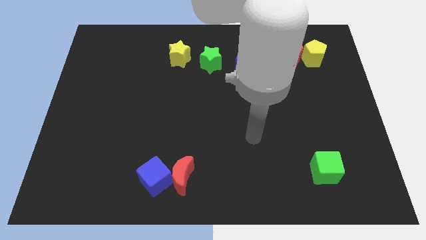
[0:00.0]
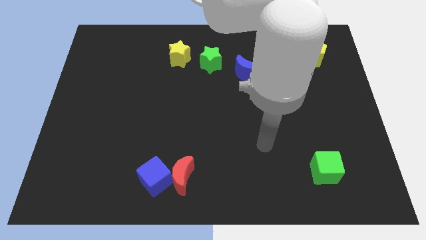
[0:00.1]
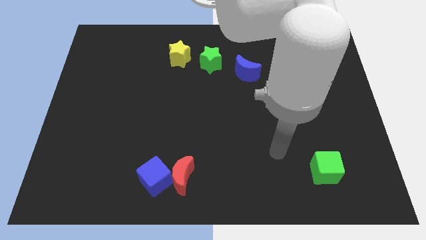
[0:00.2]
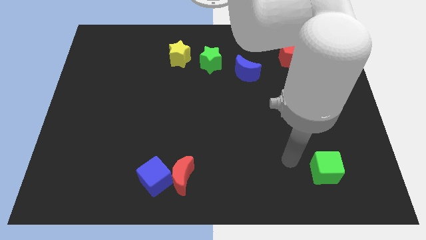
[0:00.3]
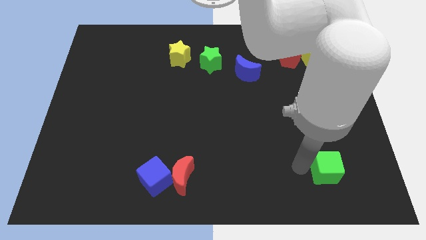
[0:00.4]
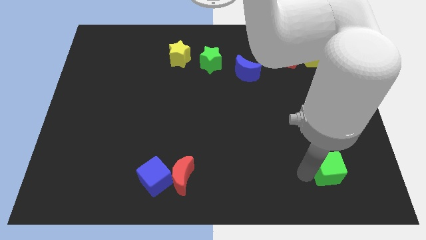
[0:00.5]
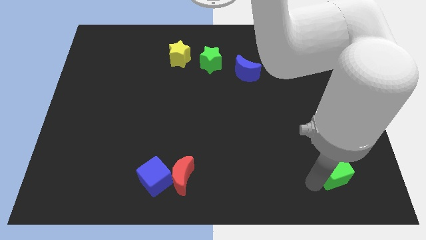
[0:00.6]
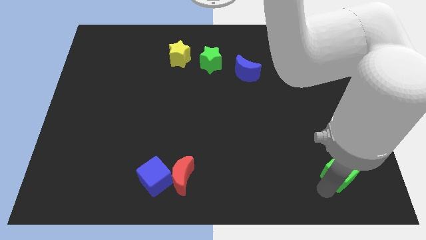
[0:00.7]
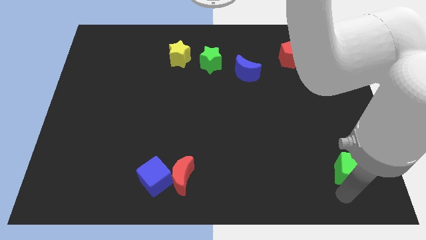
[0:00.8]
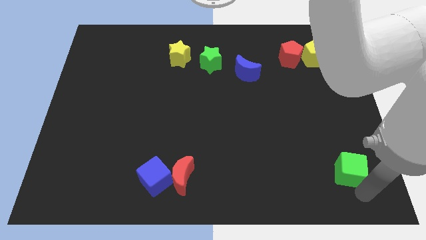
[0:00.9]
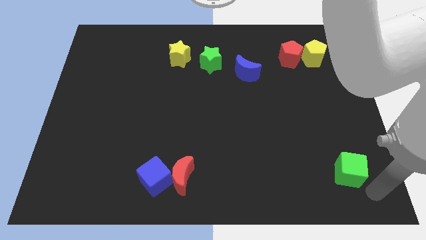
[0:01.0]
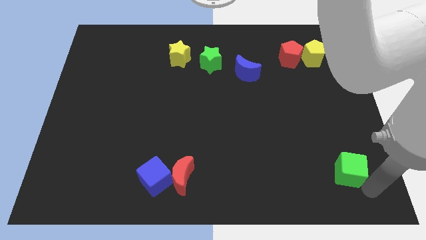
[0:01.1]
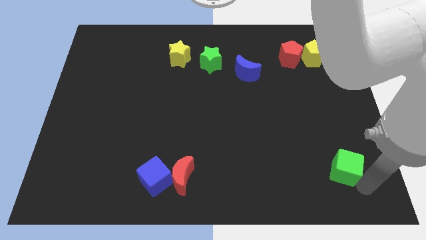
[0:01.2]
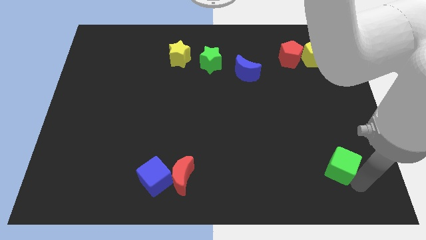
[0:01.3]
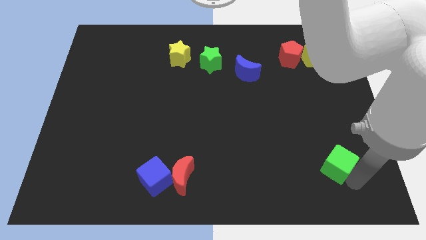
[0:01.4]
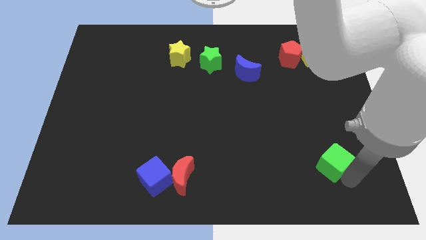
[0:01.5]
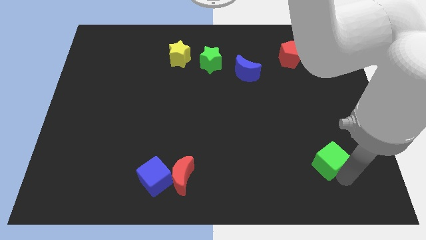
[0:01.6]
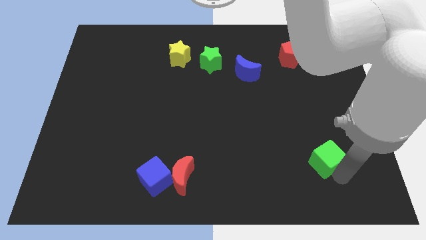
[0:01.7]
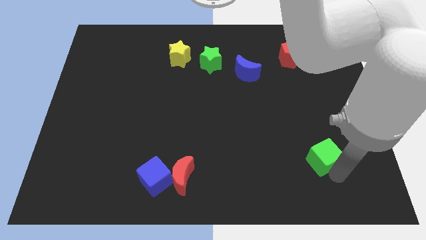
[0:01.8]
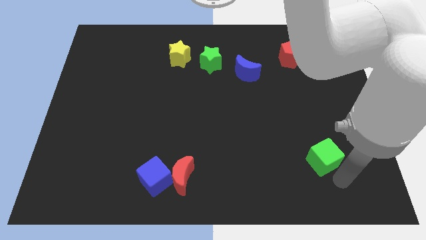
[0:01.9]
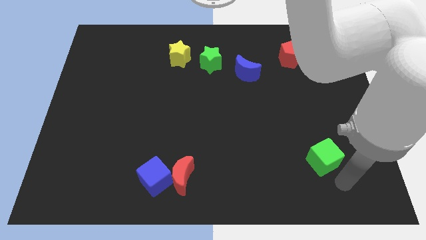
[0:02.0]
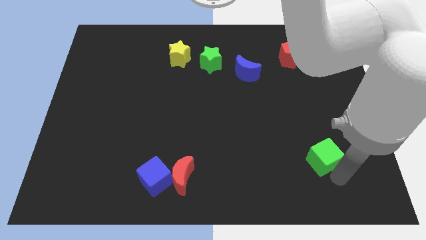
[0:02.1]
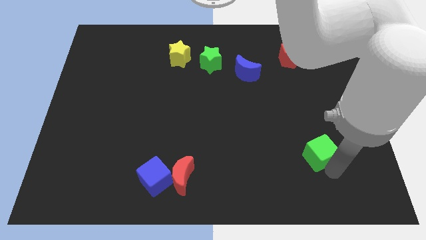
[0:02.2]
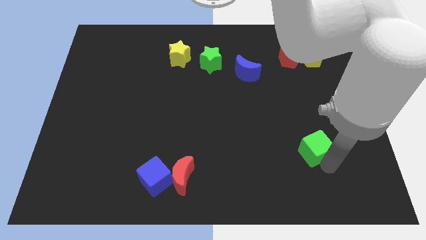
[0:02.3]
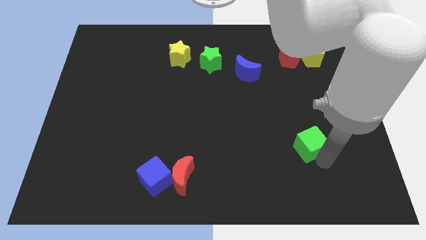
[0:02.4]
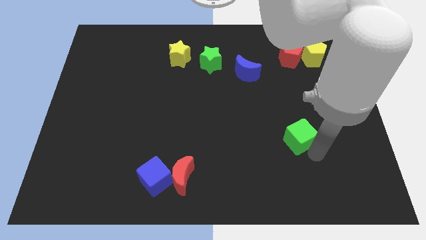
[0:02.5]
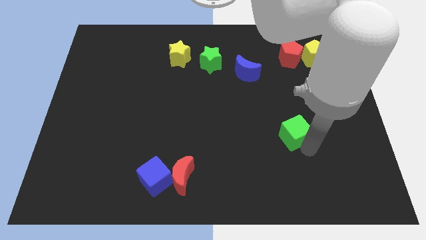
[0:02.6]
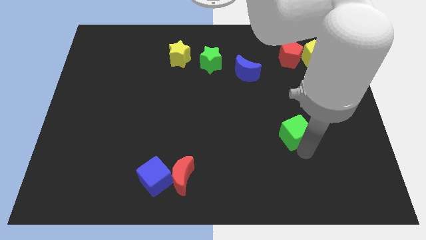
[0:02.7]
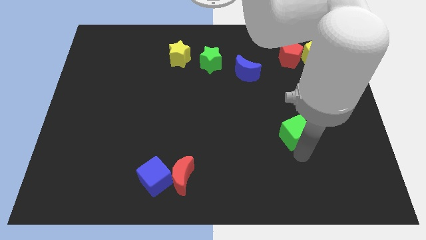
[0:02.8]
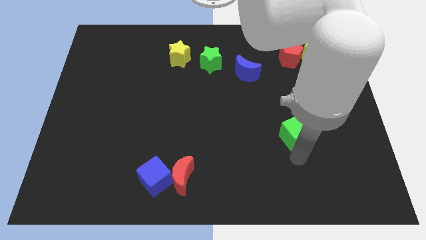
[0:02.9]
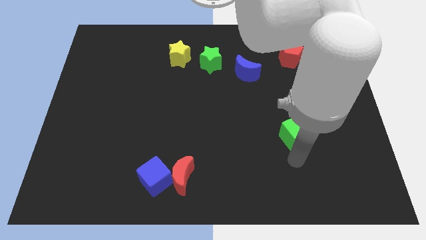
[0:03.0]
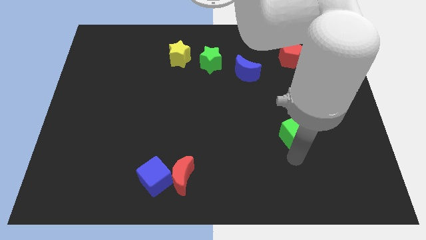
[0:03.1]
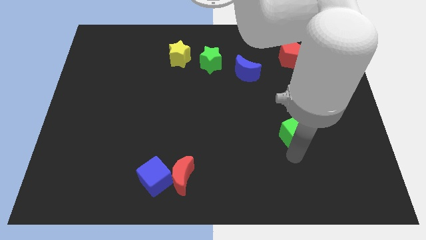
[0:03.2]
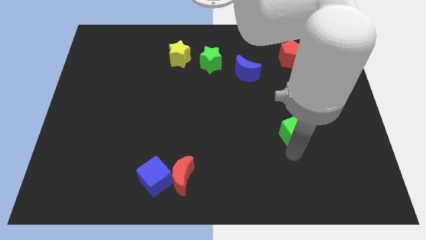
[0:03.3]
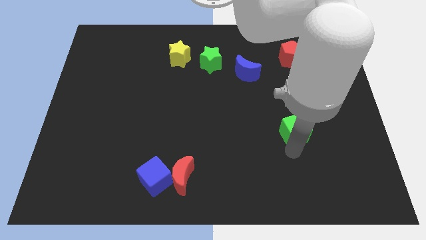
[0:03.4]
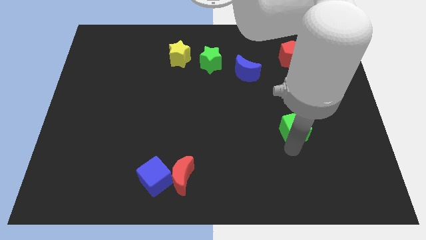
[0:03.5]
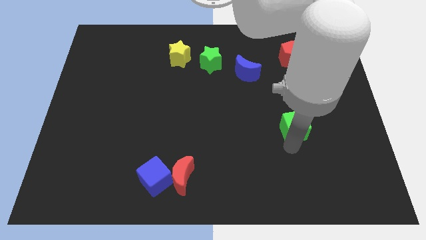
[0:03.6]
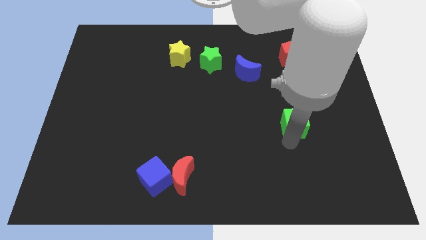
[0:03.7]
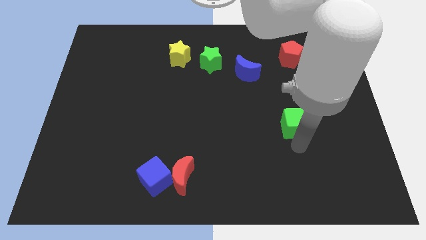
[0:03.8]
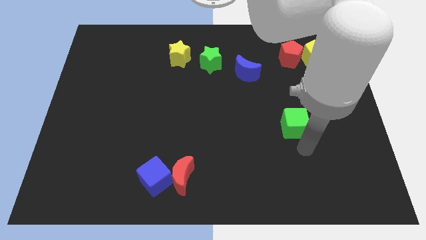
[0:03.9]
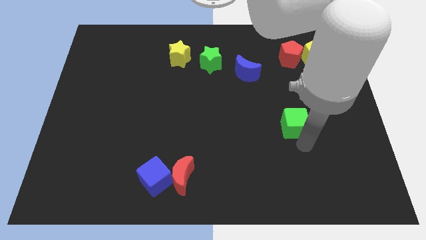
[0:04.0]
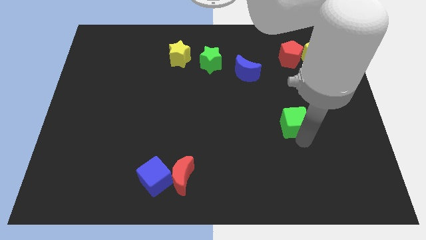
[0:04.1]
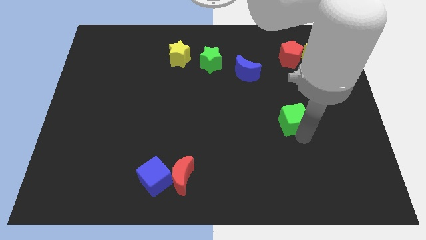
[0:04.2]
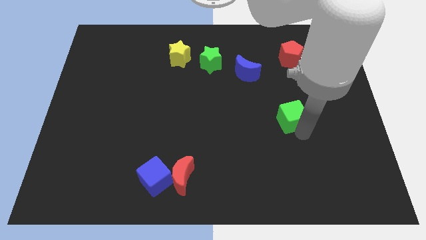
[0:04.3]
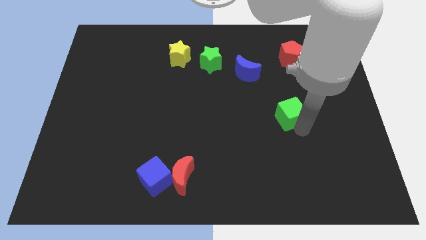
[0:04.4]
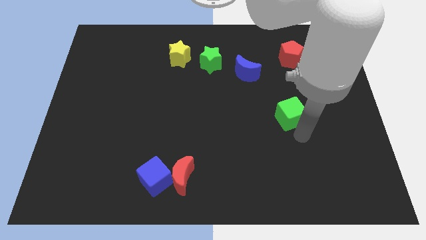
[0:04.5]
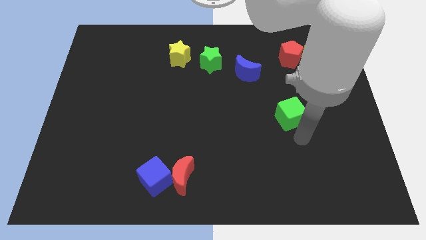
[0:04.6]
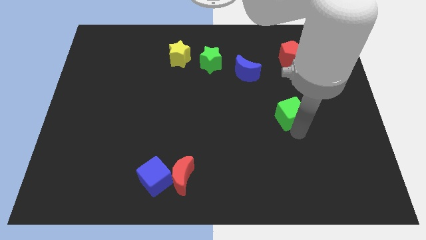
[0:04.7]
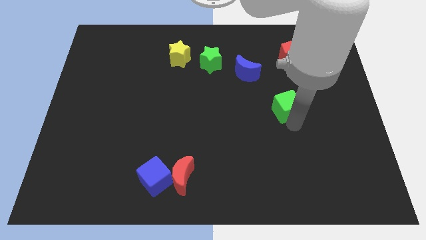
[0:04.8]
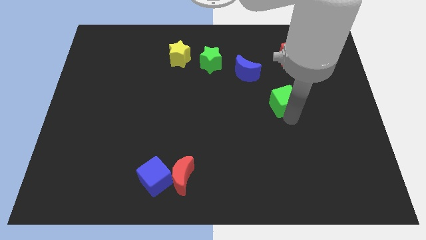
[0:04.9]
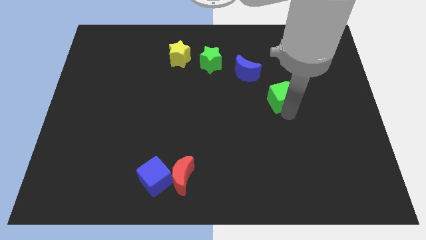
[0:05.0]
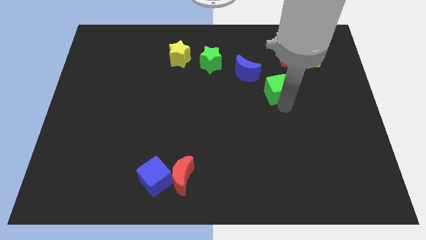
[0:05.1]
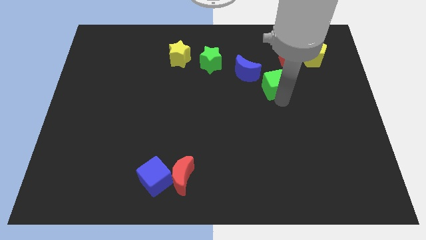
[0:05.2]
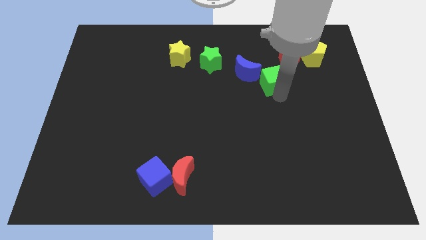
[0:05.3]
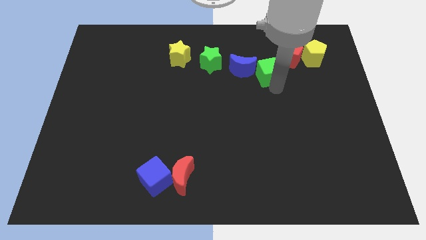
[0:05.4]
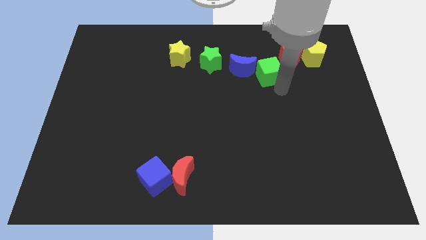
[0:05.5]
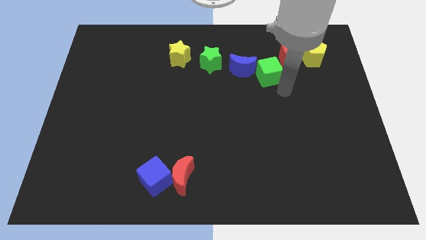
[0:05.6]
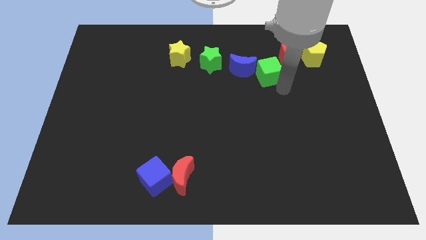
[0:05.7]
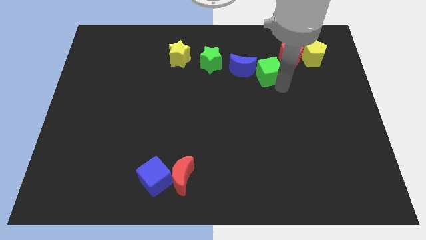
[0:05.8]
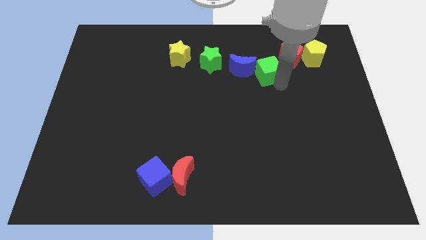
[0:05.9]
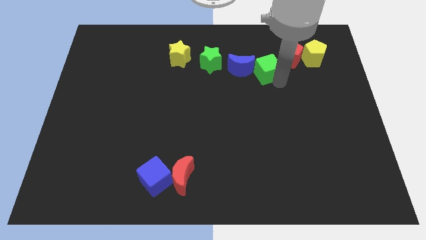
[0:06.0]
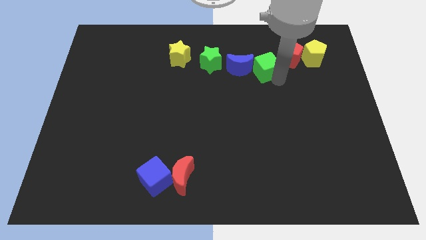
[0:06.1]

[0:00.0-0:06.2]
slide the green cube to the left side of the red pentagon

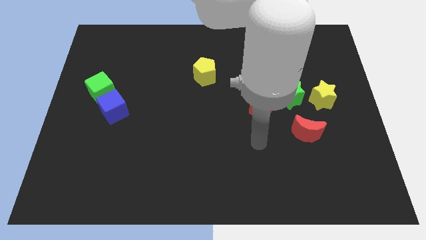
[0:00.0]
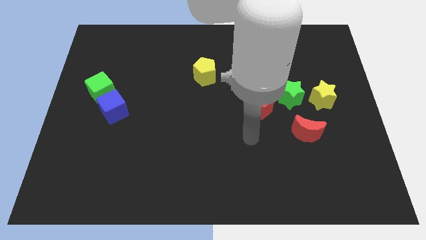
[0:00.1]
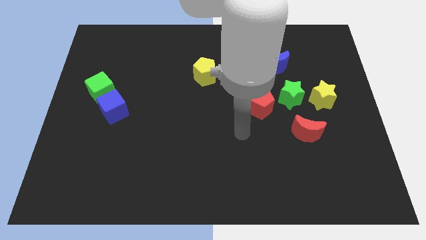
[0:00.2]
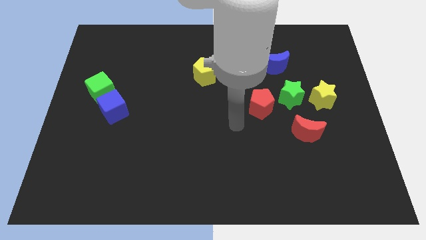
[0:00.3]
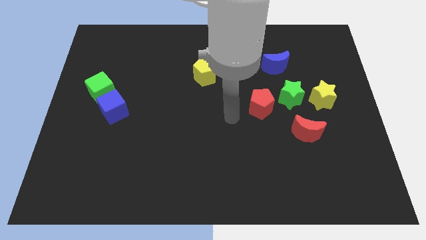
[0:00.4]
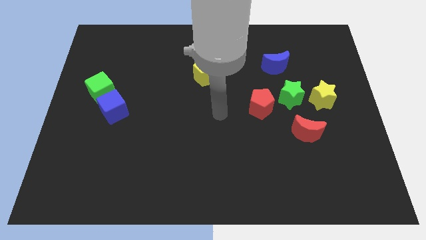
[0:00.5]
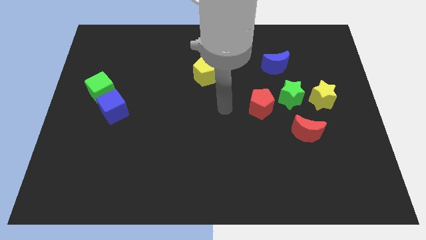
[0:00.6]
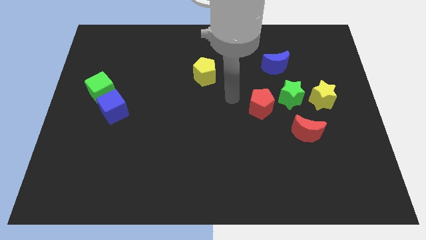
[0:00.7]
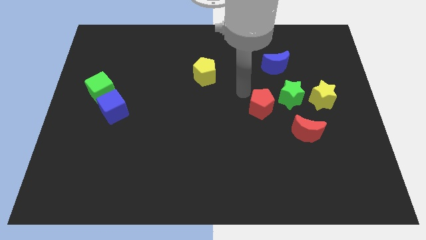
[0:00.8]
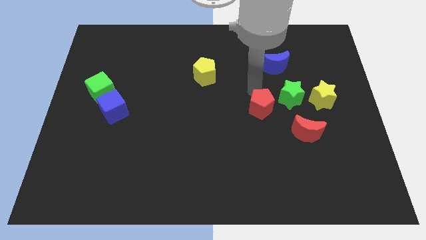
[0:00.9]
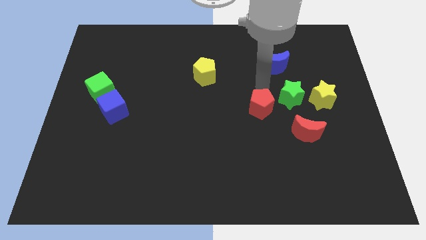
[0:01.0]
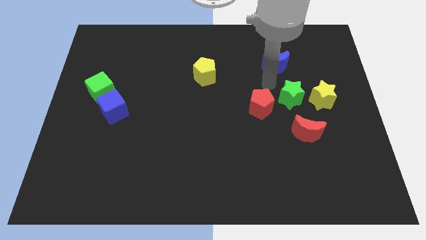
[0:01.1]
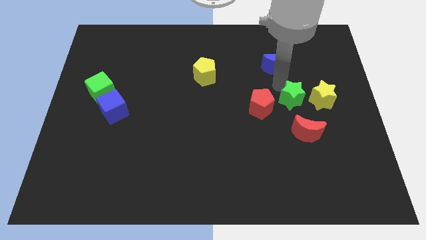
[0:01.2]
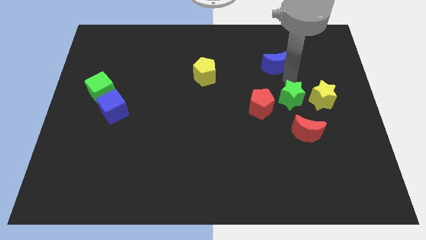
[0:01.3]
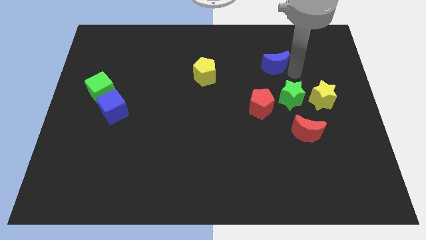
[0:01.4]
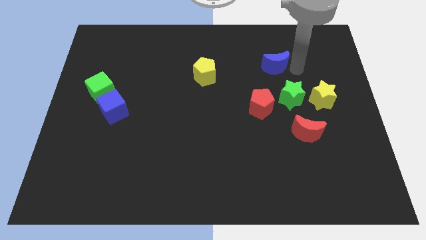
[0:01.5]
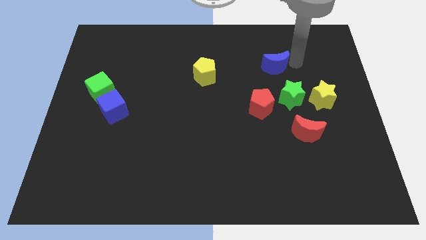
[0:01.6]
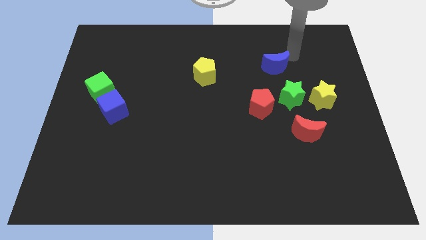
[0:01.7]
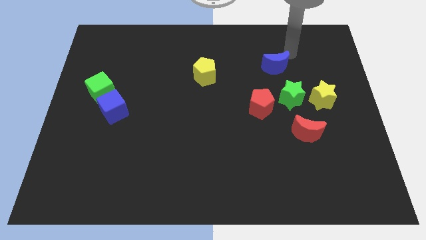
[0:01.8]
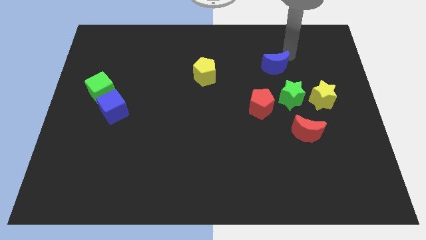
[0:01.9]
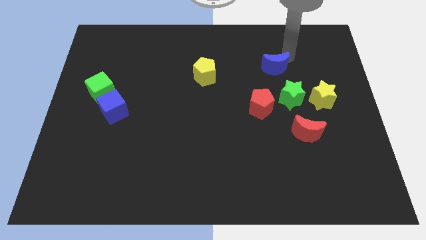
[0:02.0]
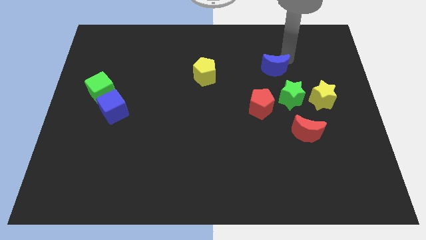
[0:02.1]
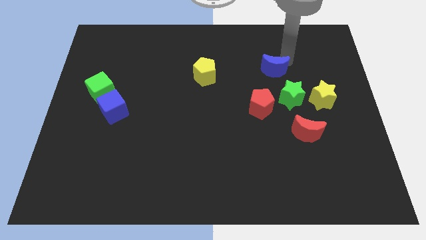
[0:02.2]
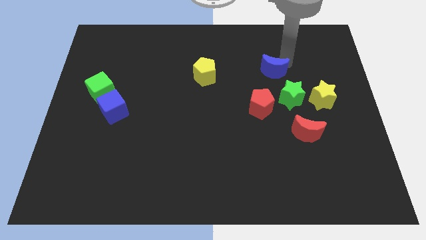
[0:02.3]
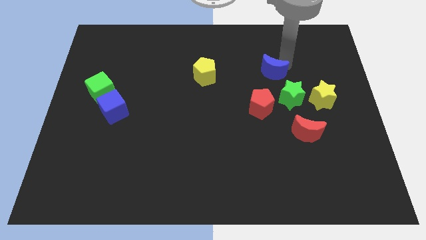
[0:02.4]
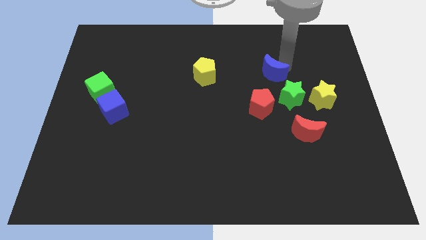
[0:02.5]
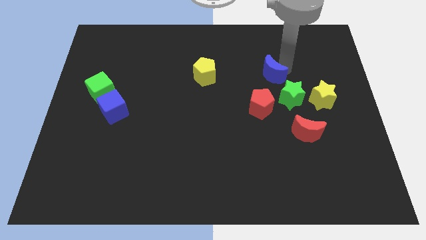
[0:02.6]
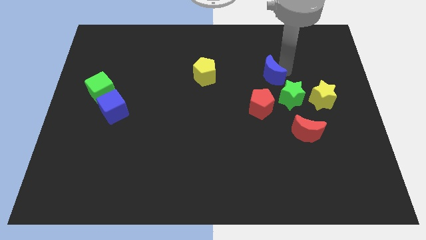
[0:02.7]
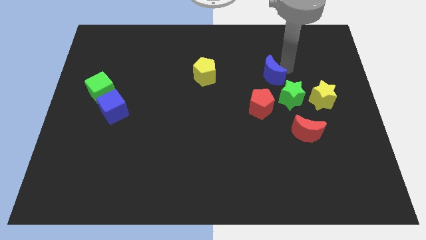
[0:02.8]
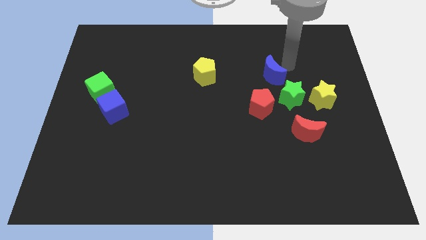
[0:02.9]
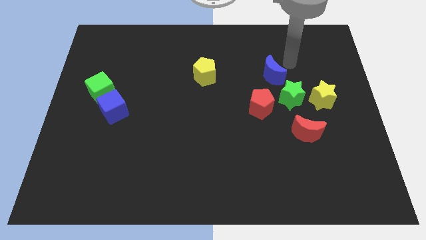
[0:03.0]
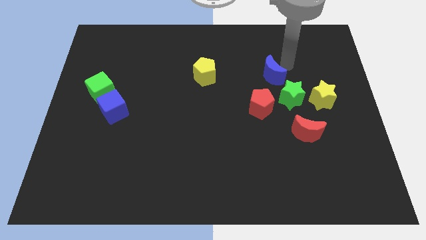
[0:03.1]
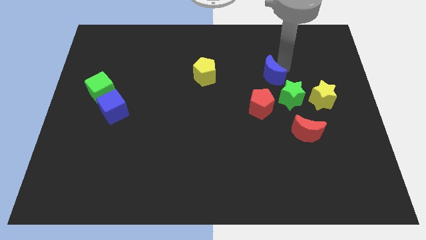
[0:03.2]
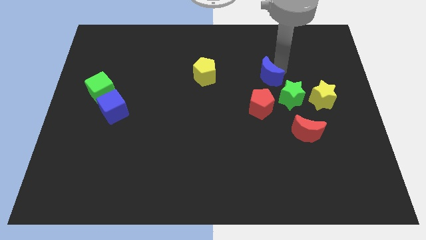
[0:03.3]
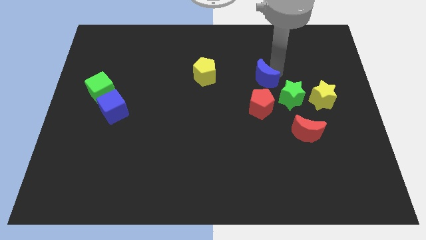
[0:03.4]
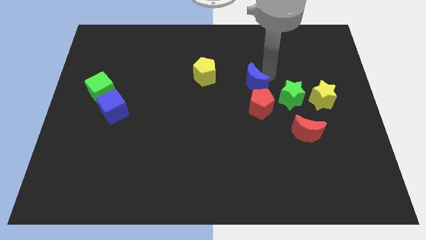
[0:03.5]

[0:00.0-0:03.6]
push the blue moon to the left side of the green star
